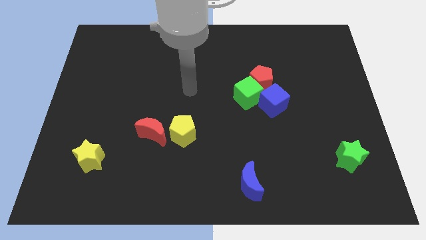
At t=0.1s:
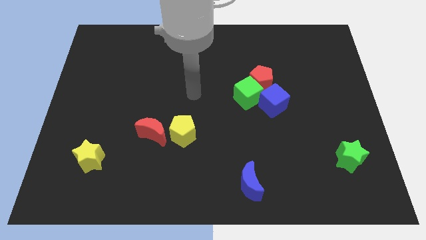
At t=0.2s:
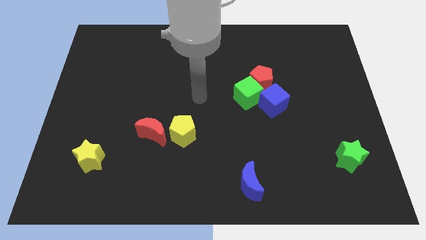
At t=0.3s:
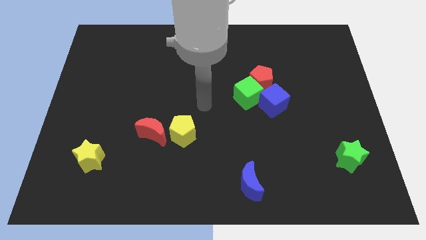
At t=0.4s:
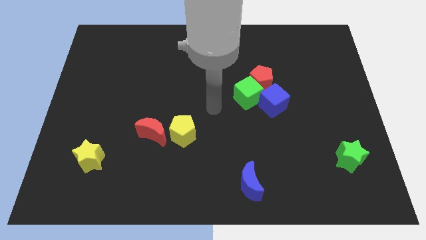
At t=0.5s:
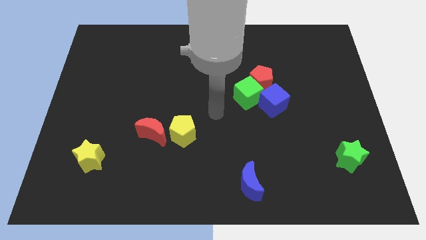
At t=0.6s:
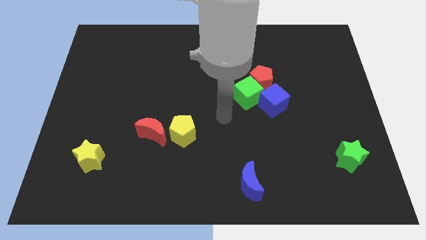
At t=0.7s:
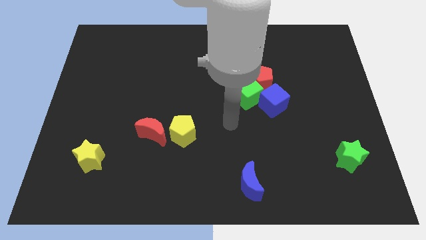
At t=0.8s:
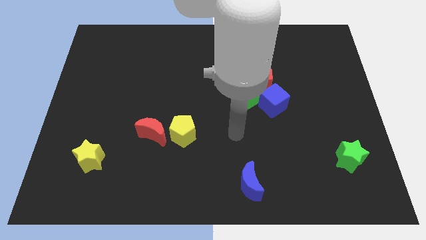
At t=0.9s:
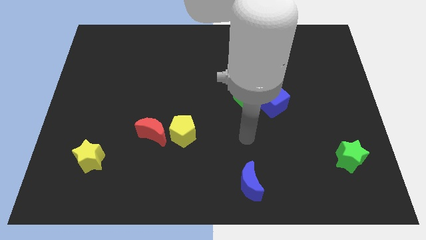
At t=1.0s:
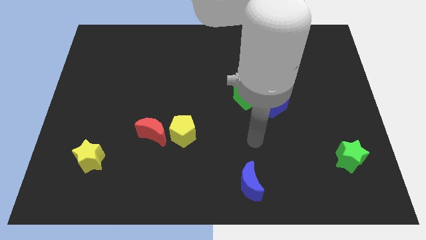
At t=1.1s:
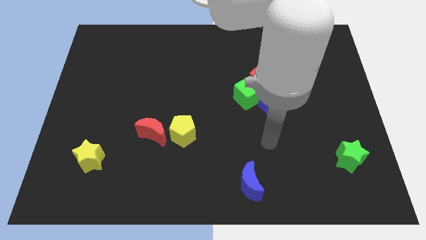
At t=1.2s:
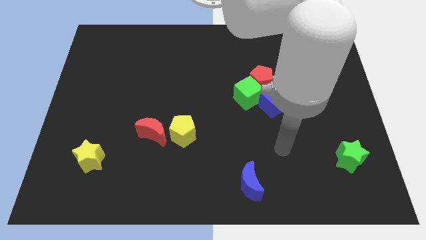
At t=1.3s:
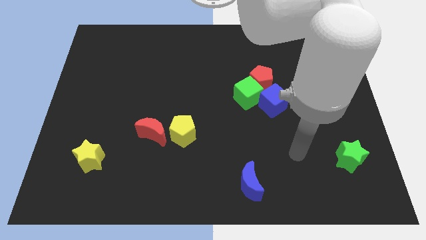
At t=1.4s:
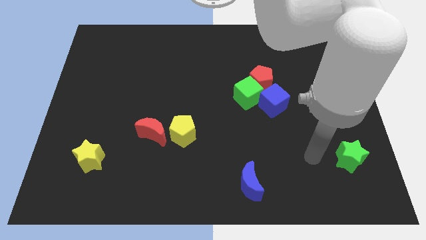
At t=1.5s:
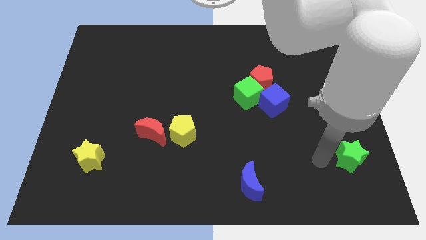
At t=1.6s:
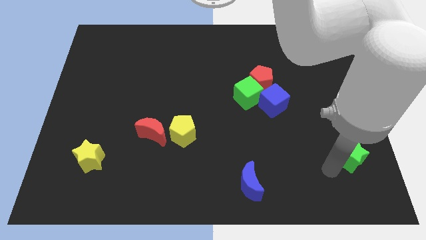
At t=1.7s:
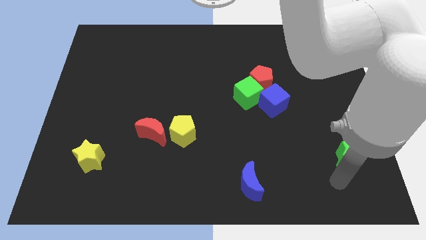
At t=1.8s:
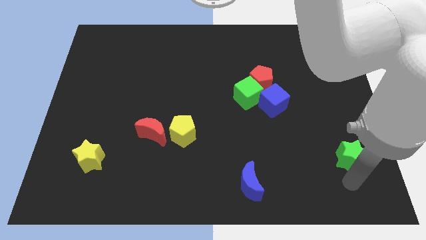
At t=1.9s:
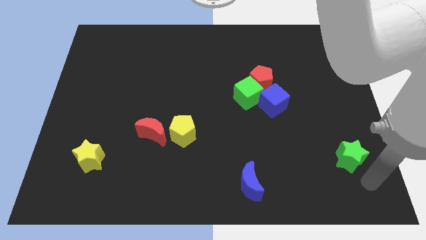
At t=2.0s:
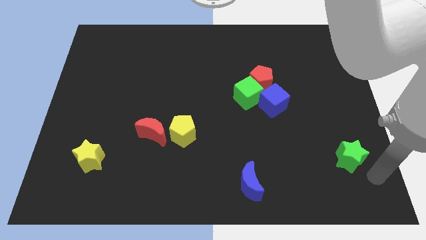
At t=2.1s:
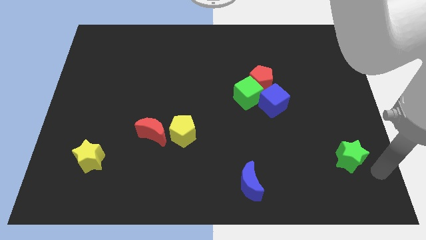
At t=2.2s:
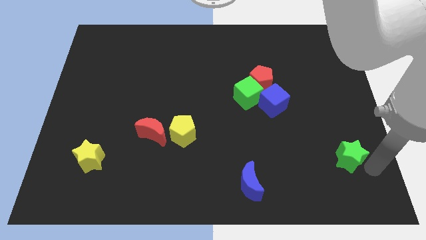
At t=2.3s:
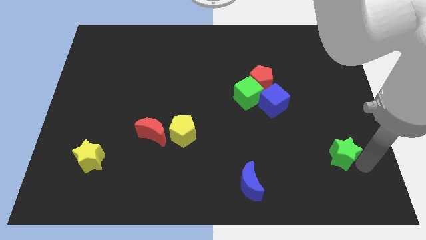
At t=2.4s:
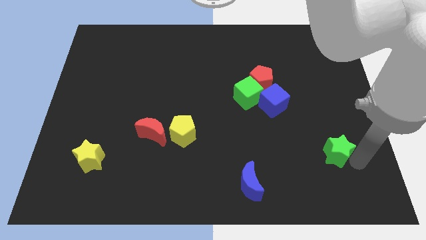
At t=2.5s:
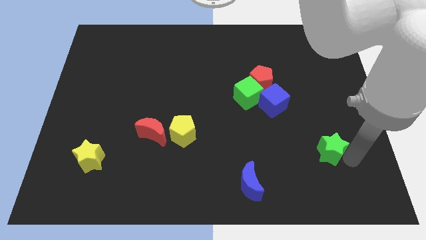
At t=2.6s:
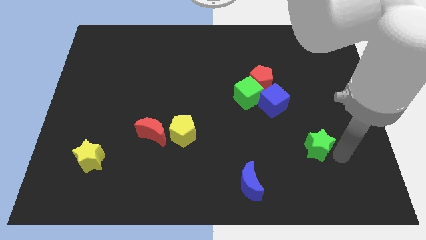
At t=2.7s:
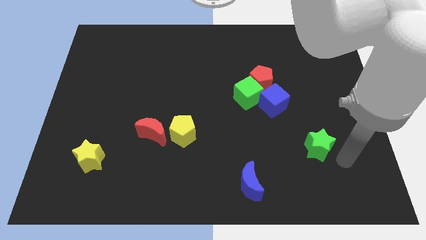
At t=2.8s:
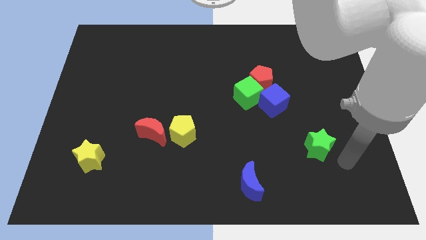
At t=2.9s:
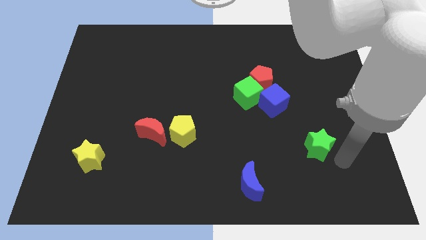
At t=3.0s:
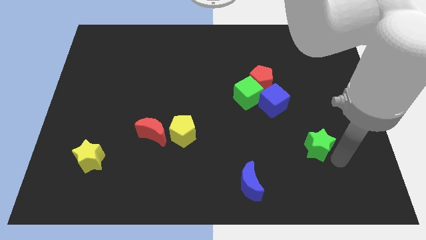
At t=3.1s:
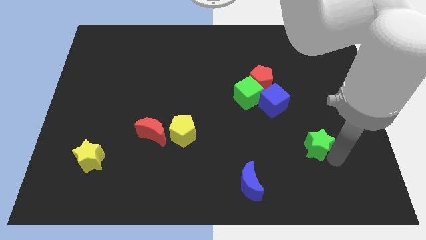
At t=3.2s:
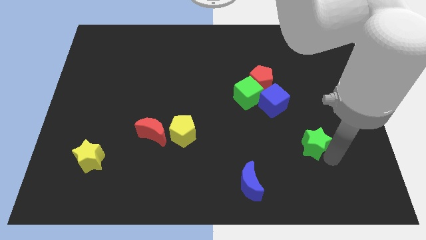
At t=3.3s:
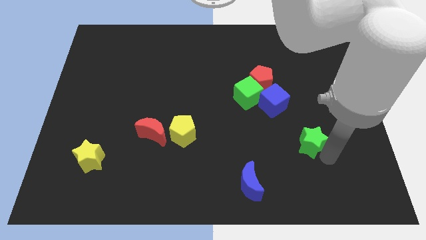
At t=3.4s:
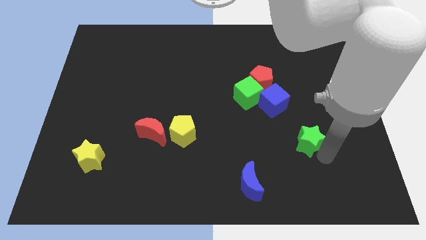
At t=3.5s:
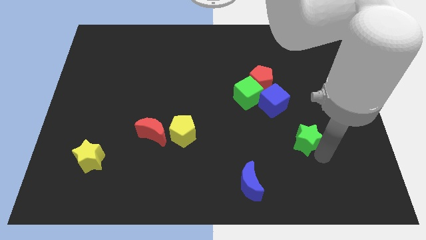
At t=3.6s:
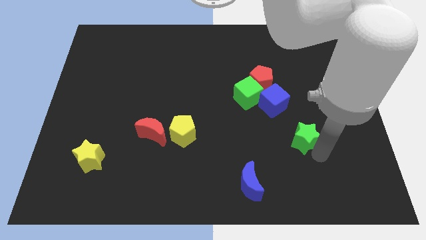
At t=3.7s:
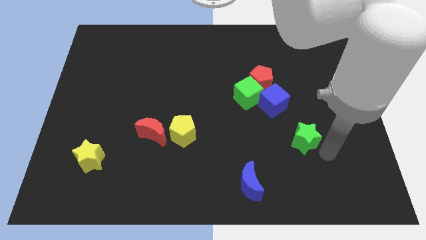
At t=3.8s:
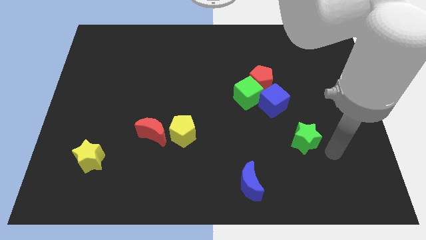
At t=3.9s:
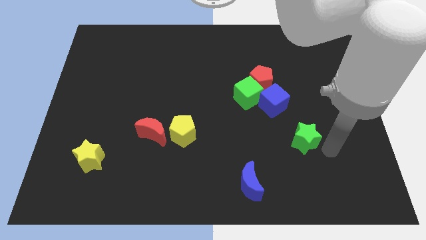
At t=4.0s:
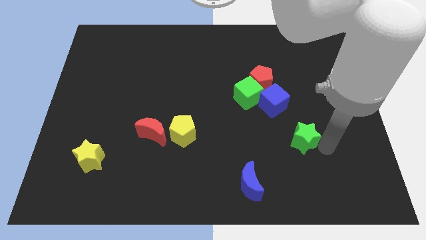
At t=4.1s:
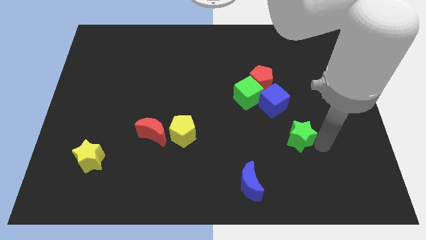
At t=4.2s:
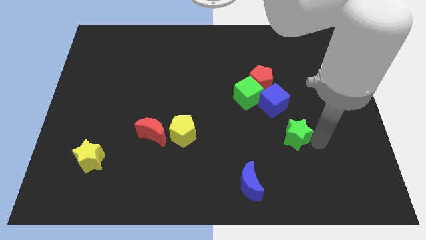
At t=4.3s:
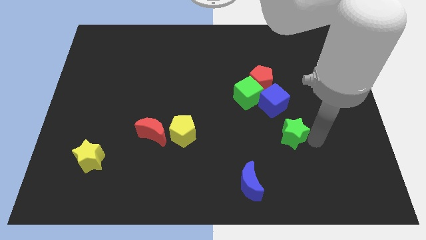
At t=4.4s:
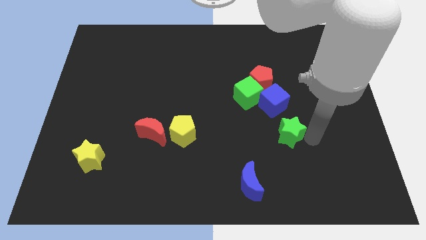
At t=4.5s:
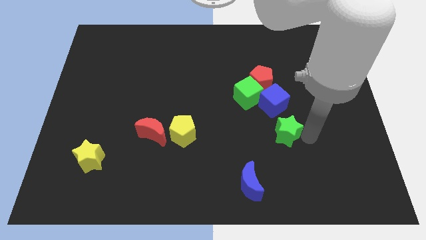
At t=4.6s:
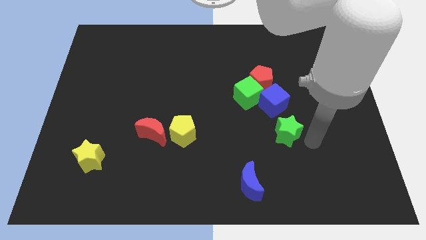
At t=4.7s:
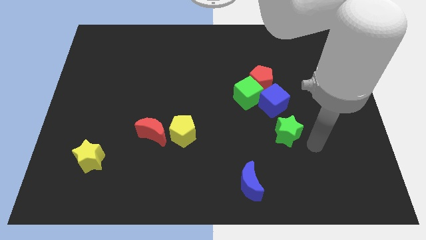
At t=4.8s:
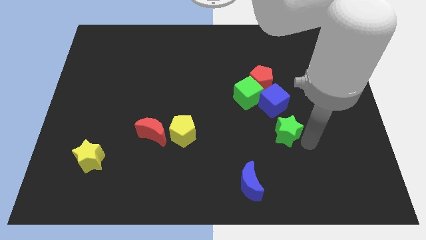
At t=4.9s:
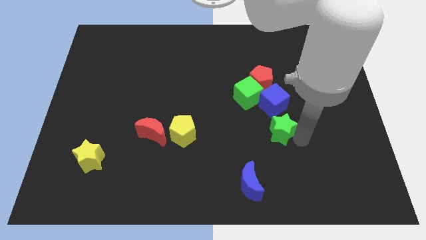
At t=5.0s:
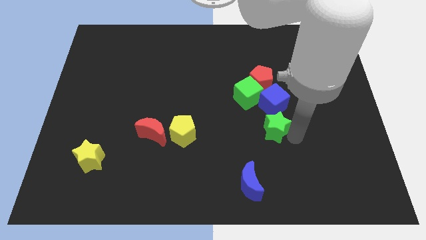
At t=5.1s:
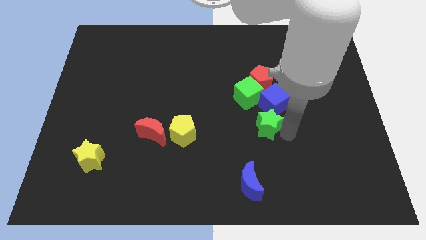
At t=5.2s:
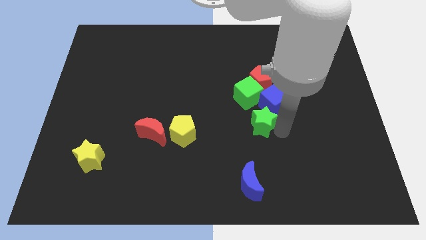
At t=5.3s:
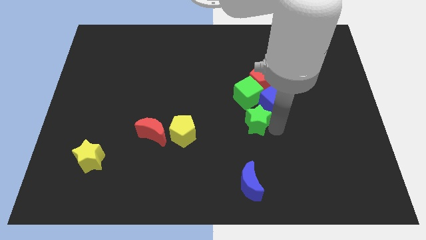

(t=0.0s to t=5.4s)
push the green star to the center

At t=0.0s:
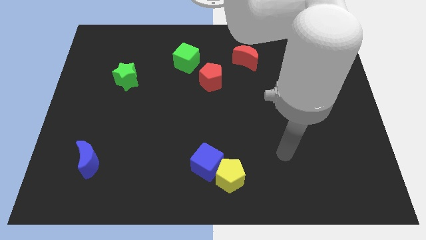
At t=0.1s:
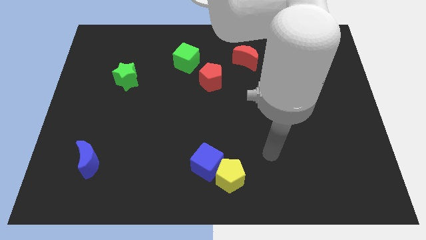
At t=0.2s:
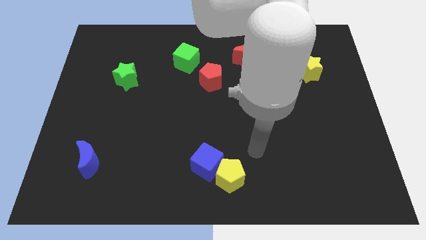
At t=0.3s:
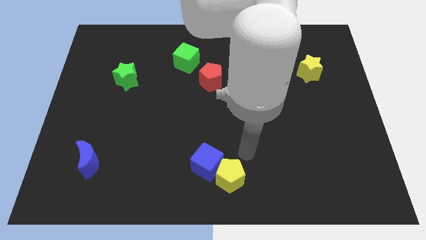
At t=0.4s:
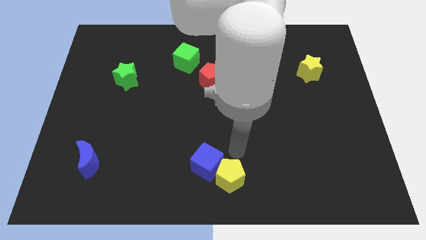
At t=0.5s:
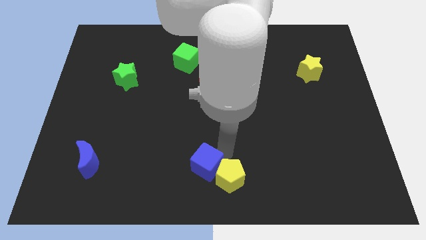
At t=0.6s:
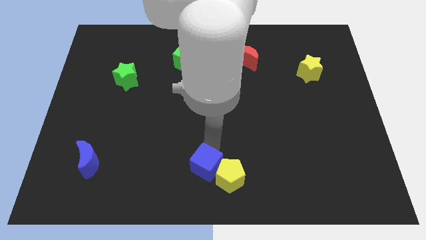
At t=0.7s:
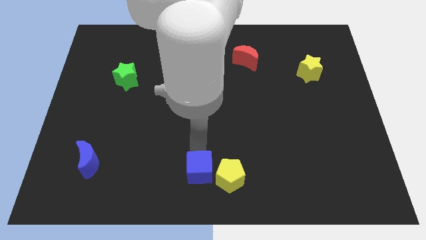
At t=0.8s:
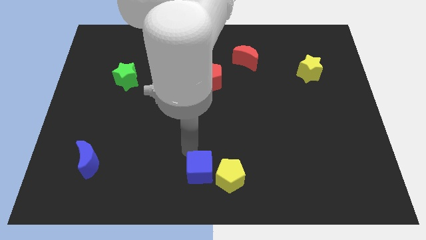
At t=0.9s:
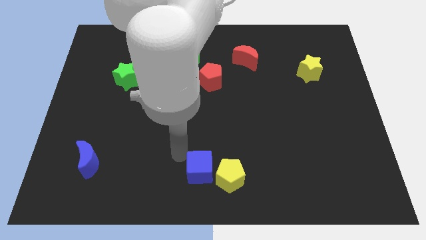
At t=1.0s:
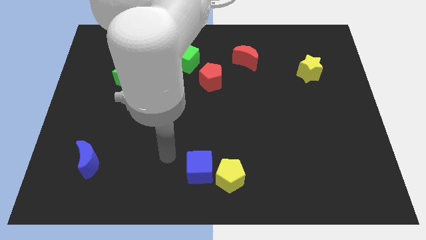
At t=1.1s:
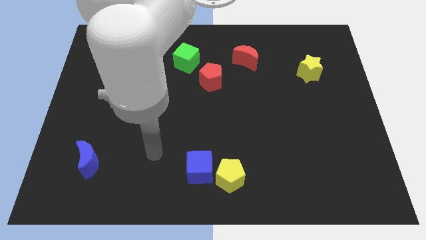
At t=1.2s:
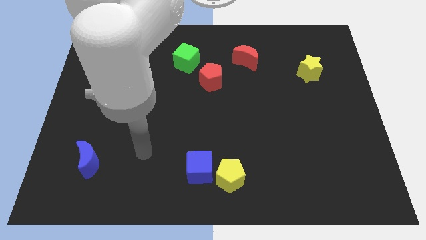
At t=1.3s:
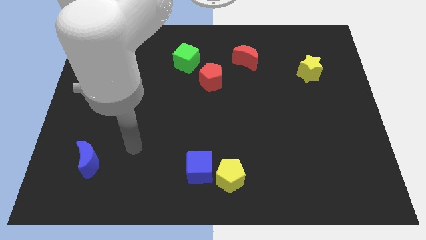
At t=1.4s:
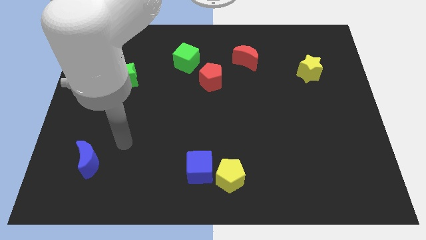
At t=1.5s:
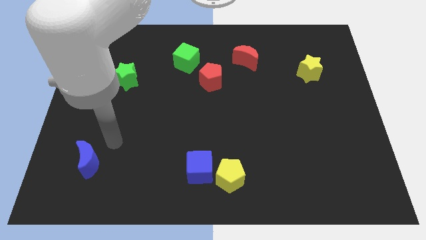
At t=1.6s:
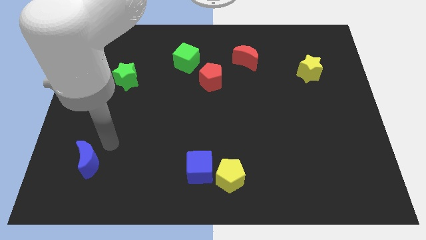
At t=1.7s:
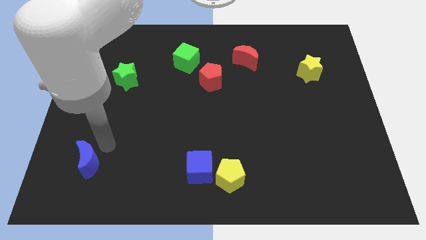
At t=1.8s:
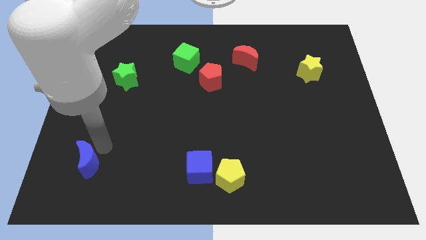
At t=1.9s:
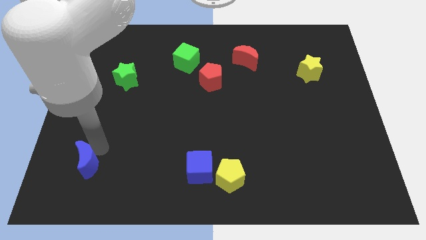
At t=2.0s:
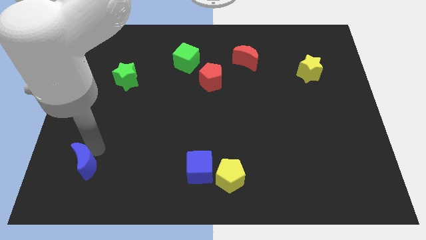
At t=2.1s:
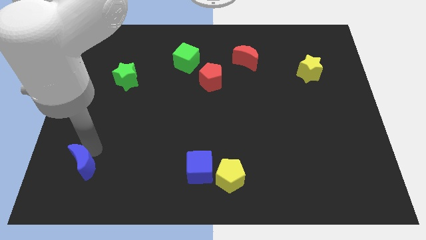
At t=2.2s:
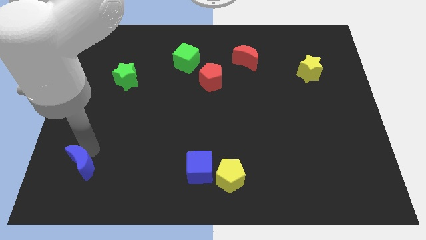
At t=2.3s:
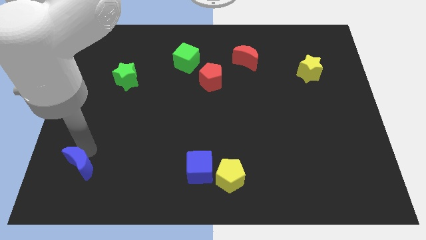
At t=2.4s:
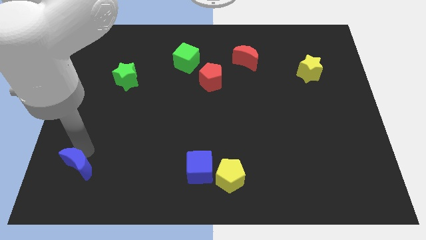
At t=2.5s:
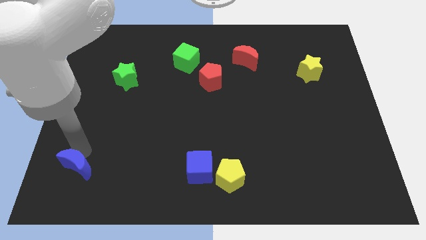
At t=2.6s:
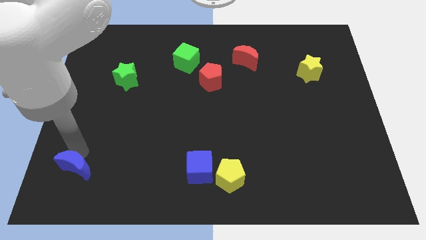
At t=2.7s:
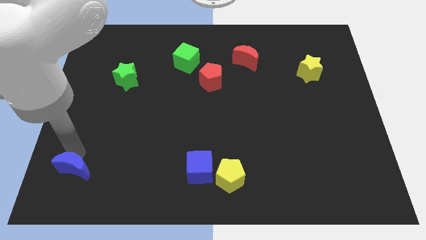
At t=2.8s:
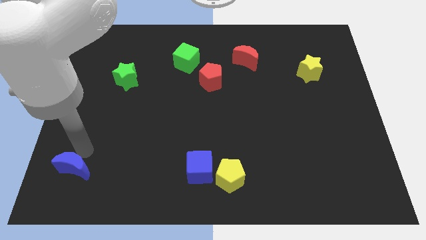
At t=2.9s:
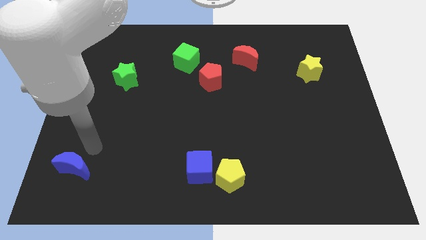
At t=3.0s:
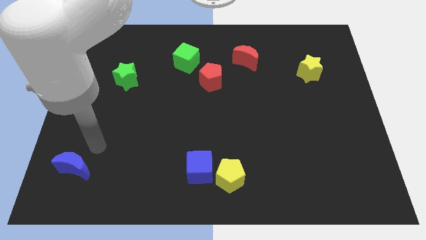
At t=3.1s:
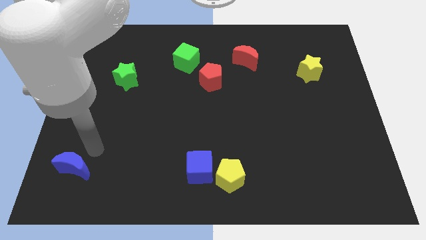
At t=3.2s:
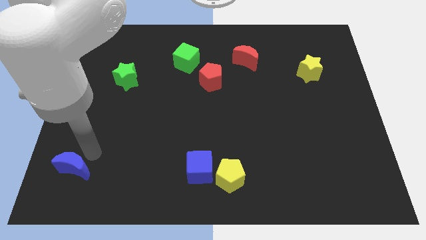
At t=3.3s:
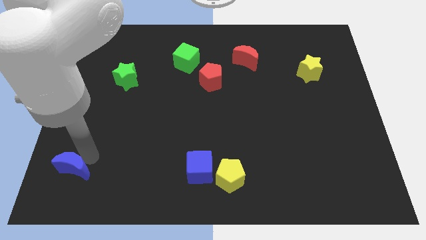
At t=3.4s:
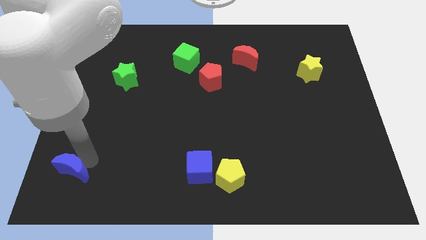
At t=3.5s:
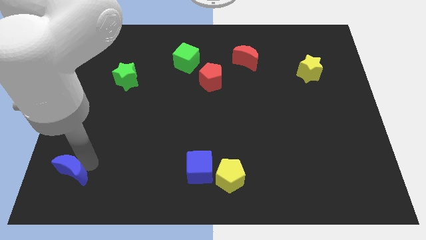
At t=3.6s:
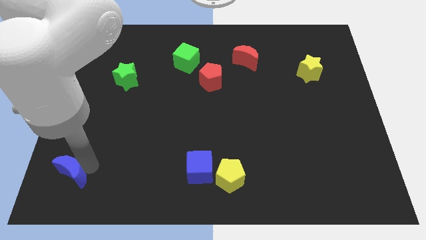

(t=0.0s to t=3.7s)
move the blue moon to the bottom left of the board
